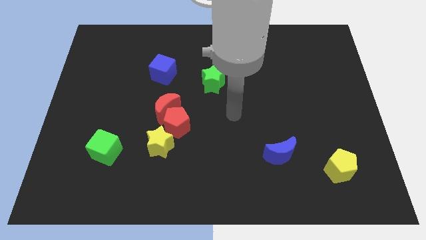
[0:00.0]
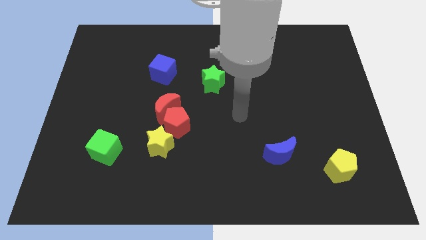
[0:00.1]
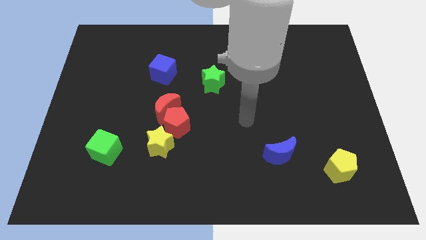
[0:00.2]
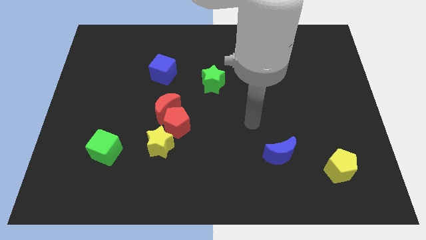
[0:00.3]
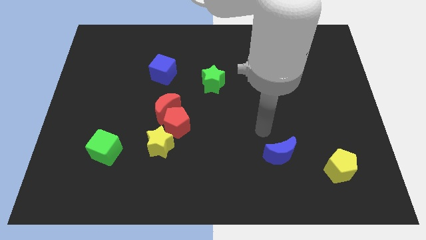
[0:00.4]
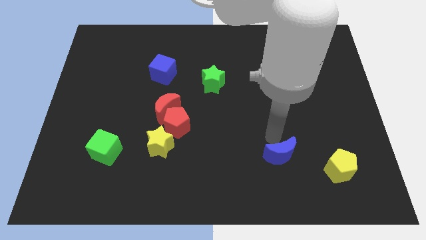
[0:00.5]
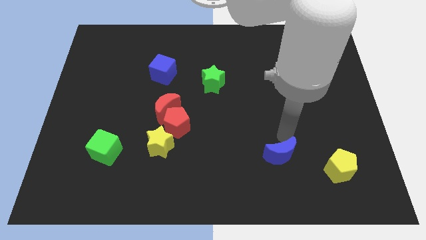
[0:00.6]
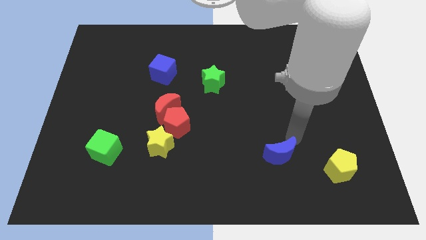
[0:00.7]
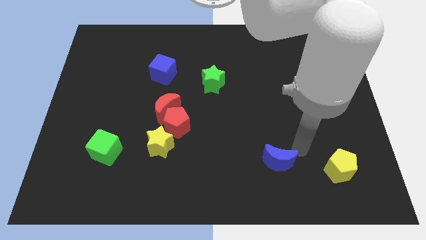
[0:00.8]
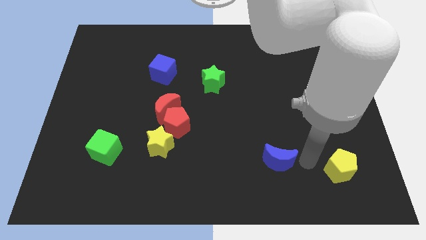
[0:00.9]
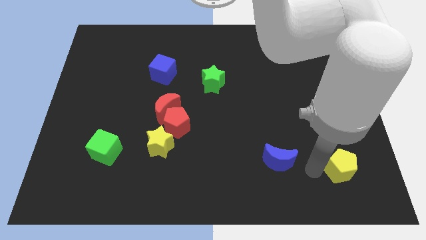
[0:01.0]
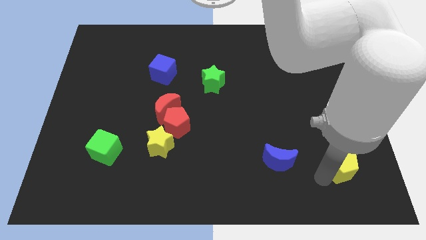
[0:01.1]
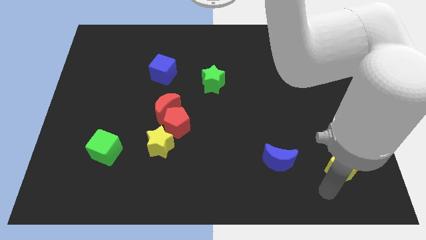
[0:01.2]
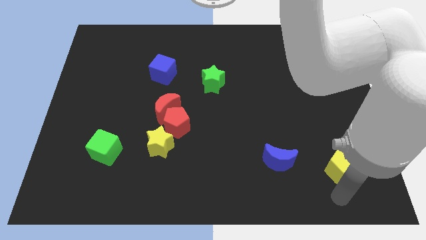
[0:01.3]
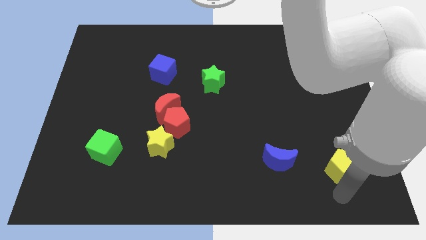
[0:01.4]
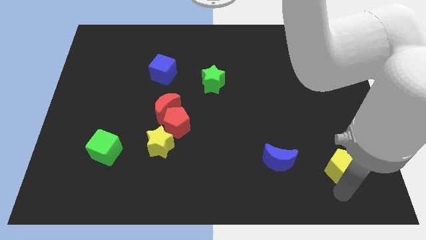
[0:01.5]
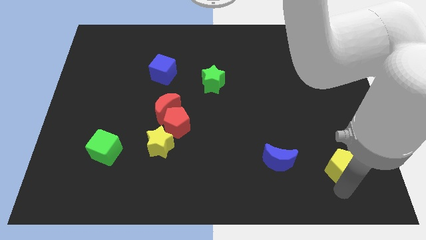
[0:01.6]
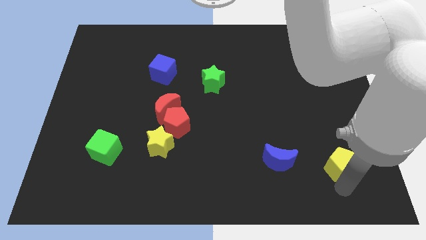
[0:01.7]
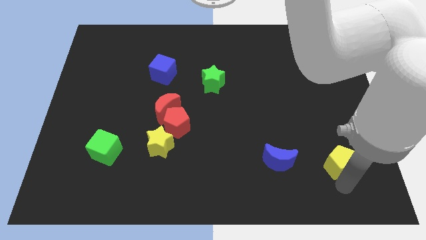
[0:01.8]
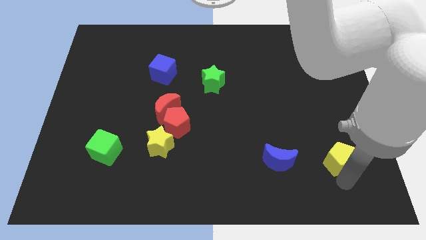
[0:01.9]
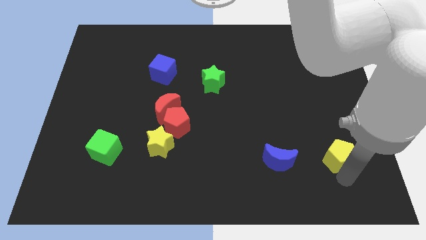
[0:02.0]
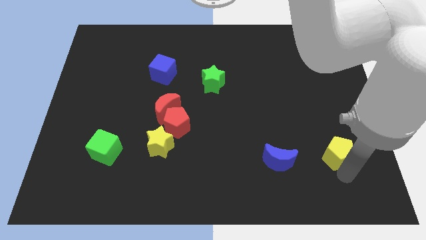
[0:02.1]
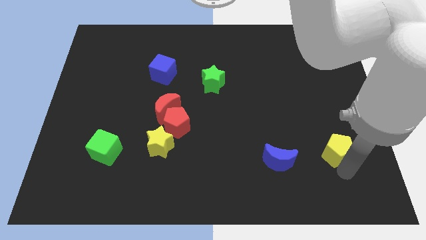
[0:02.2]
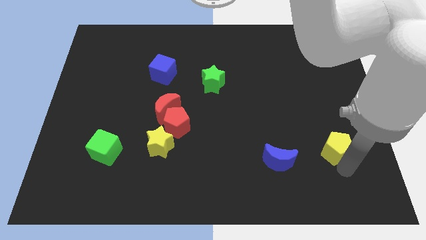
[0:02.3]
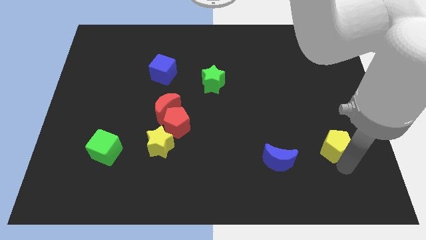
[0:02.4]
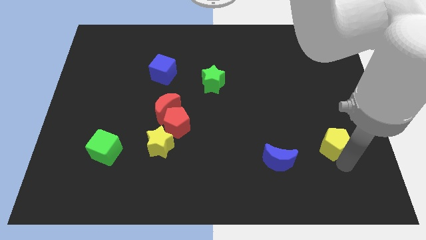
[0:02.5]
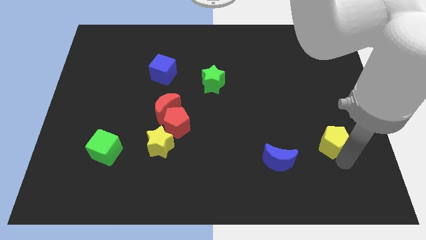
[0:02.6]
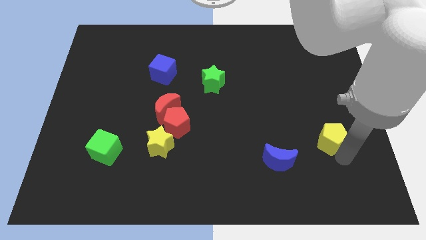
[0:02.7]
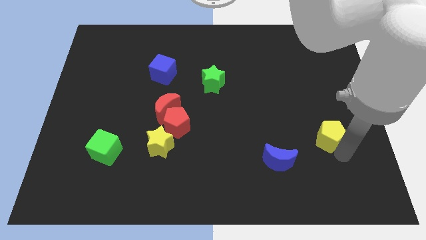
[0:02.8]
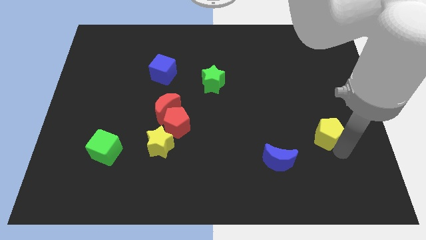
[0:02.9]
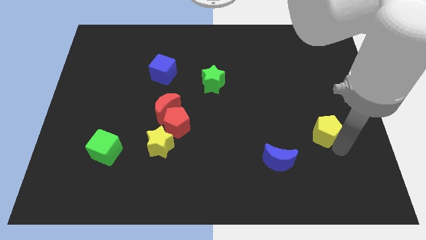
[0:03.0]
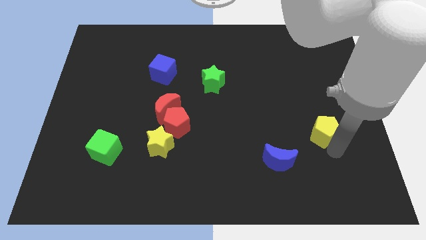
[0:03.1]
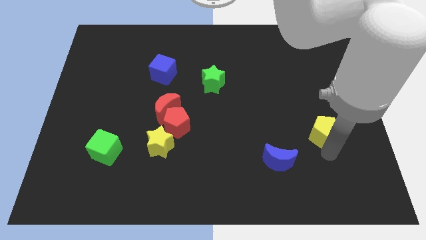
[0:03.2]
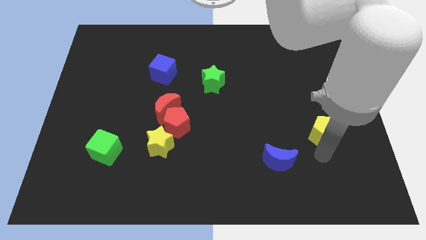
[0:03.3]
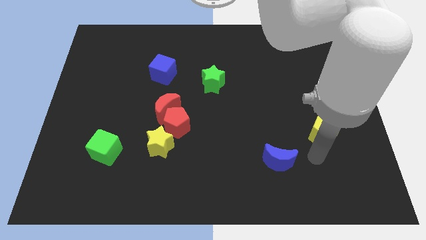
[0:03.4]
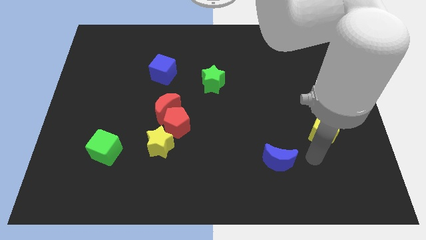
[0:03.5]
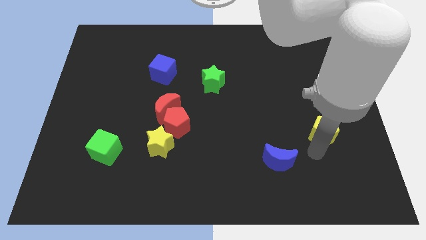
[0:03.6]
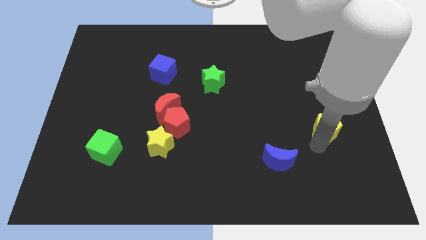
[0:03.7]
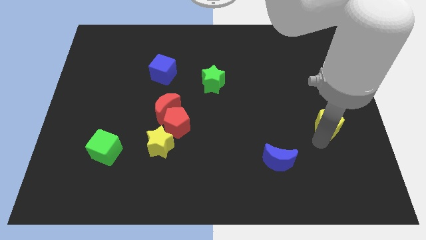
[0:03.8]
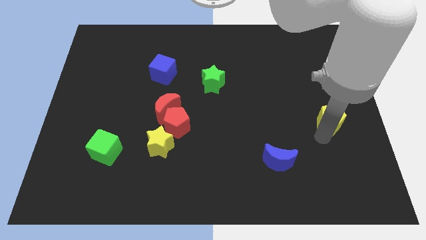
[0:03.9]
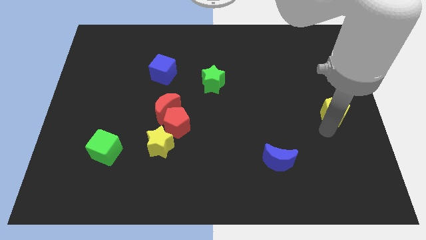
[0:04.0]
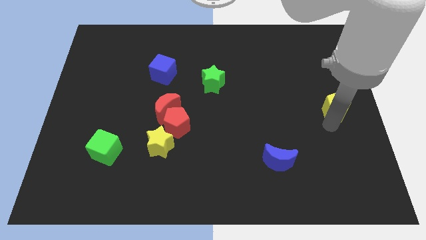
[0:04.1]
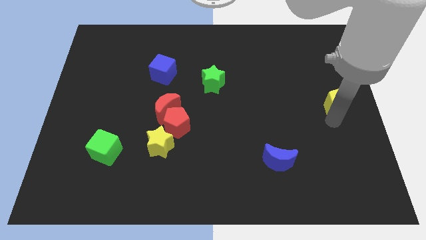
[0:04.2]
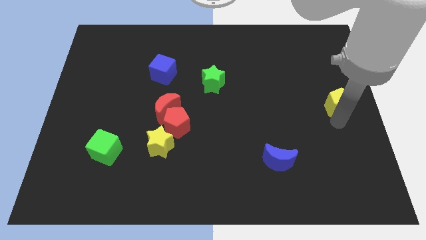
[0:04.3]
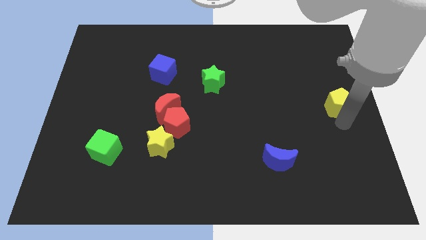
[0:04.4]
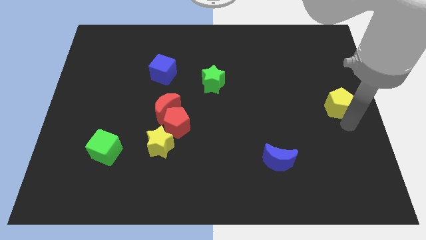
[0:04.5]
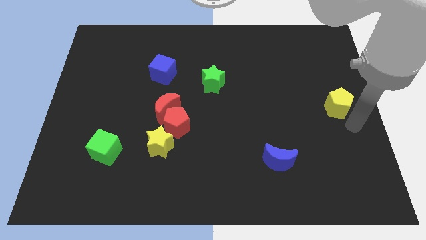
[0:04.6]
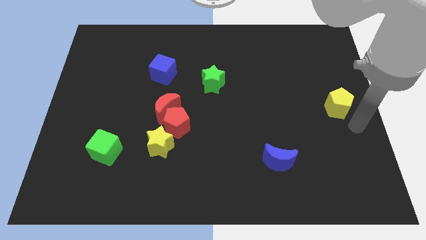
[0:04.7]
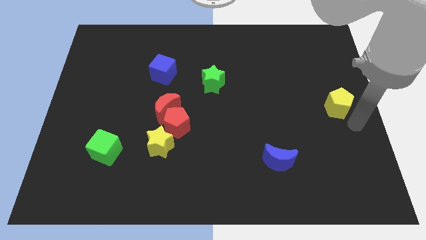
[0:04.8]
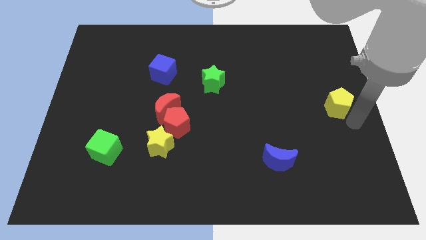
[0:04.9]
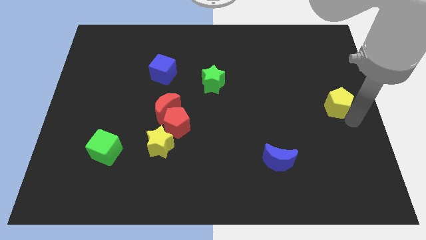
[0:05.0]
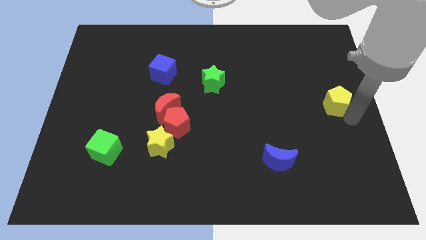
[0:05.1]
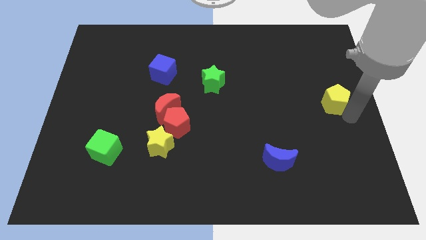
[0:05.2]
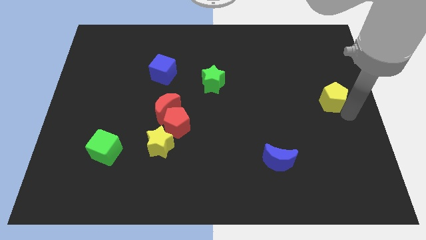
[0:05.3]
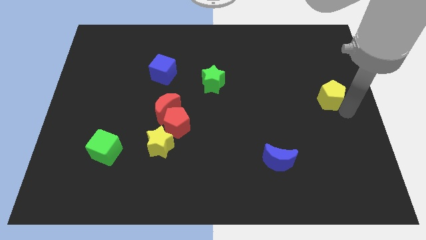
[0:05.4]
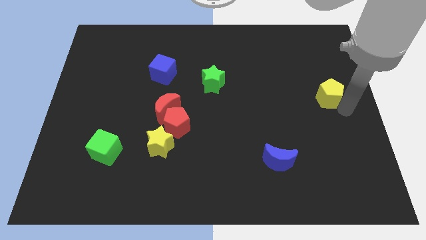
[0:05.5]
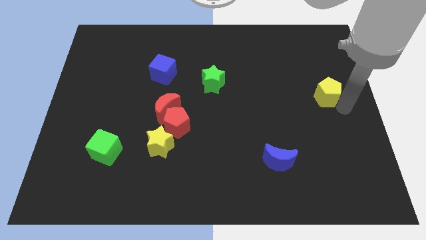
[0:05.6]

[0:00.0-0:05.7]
move the yellow pentagon up

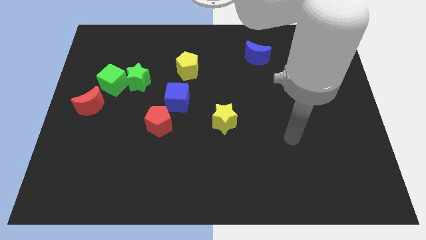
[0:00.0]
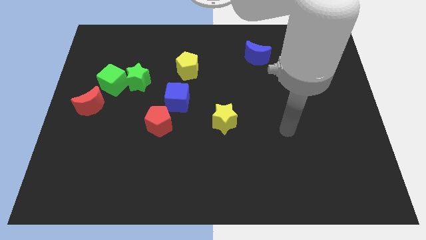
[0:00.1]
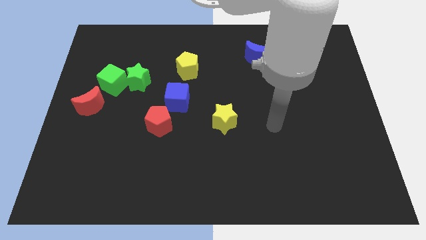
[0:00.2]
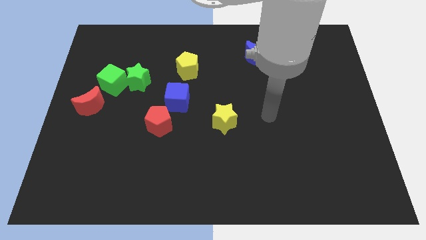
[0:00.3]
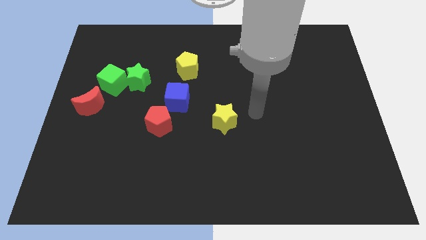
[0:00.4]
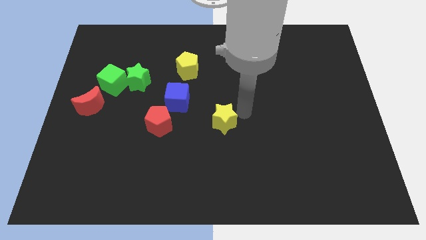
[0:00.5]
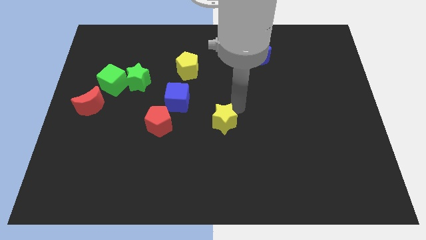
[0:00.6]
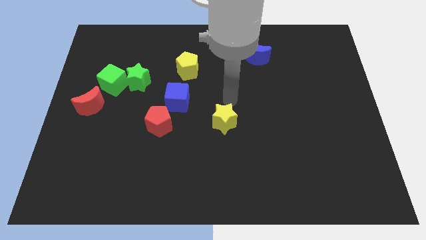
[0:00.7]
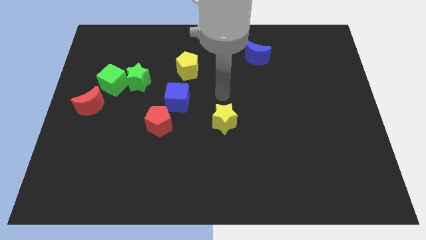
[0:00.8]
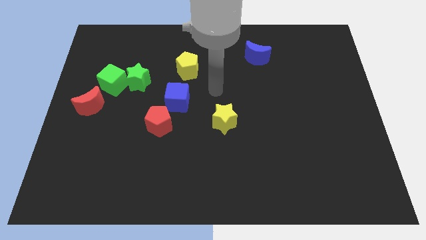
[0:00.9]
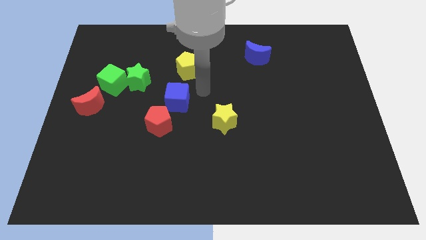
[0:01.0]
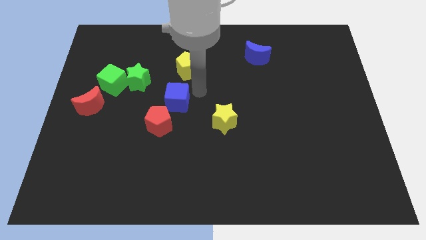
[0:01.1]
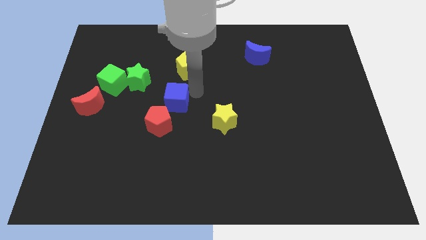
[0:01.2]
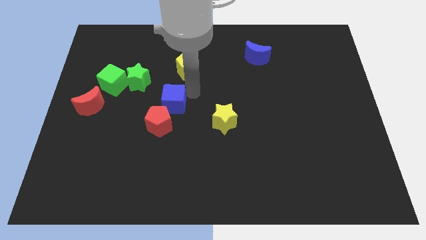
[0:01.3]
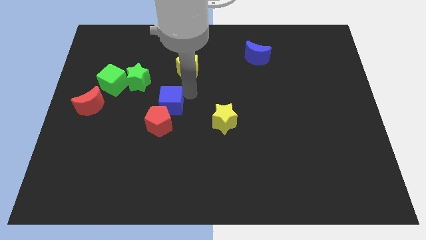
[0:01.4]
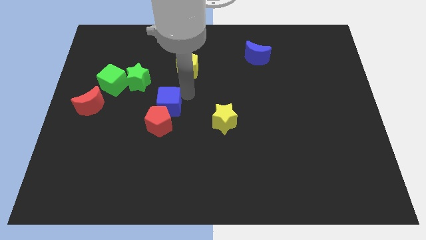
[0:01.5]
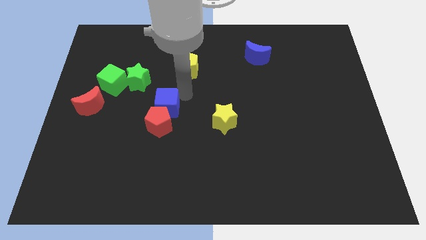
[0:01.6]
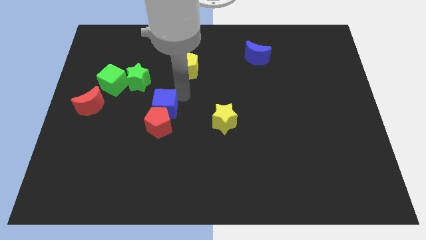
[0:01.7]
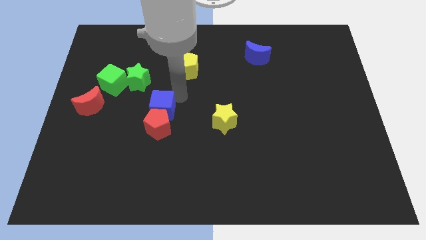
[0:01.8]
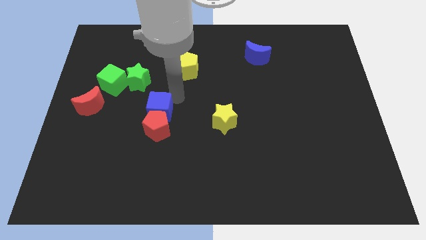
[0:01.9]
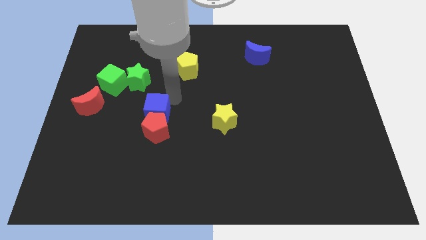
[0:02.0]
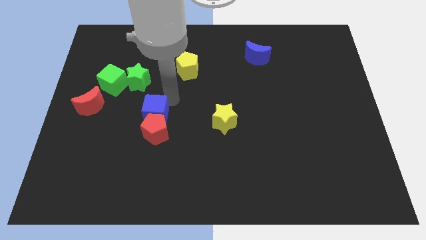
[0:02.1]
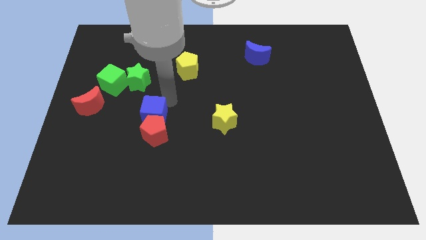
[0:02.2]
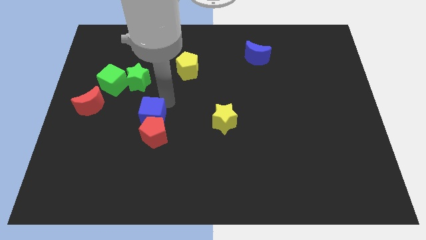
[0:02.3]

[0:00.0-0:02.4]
slightly slide the blue cube down and then to the left
